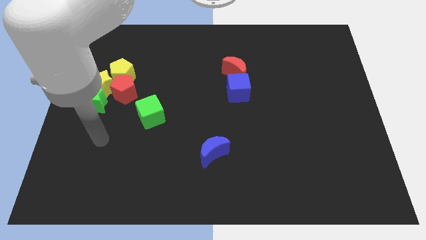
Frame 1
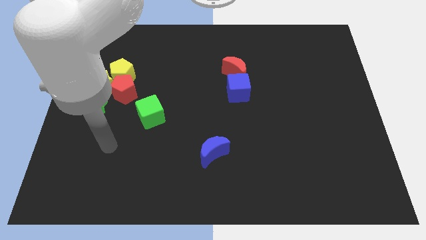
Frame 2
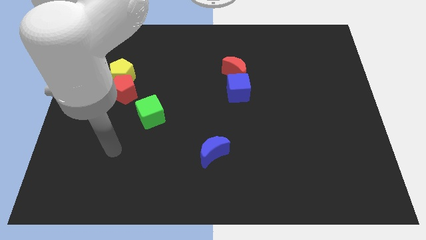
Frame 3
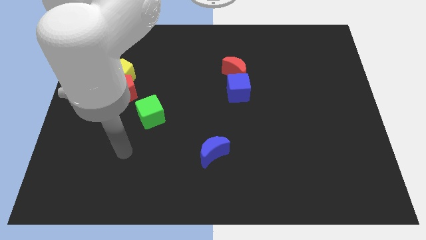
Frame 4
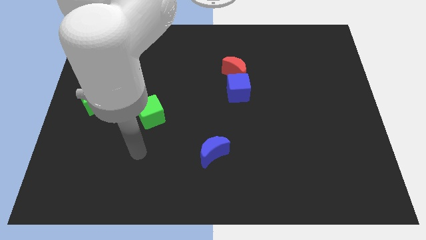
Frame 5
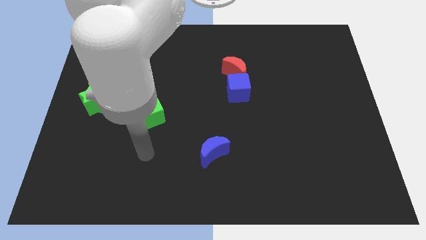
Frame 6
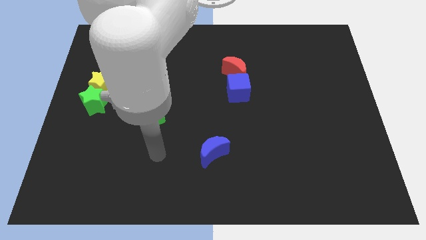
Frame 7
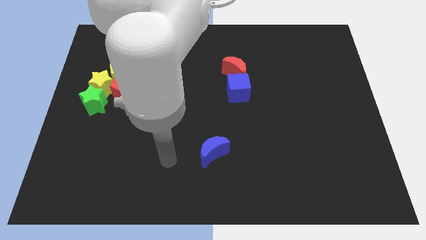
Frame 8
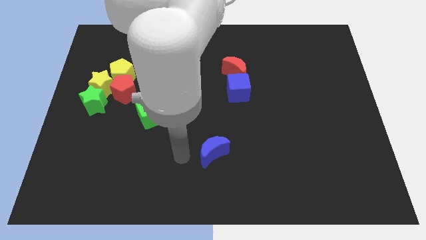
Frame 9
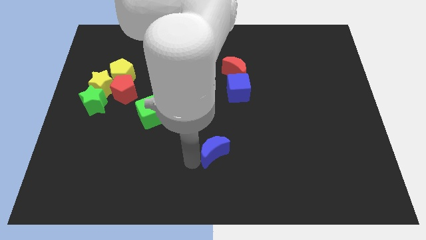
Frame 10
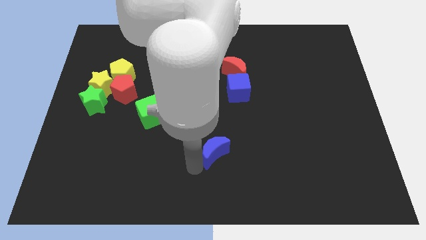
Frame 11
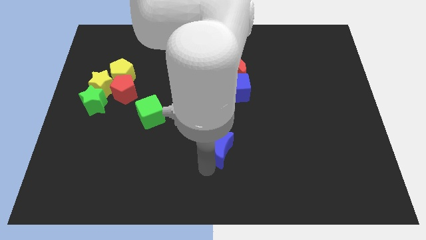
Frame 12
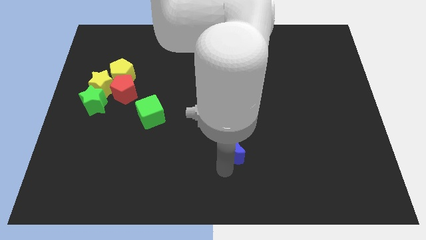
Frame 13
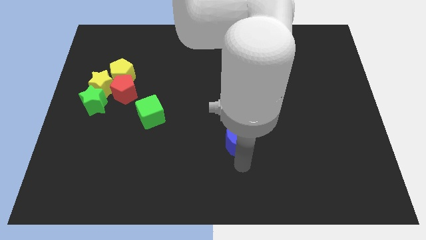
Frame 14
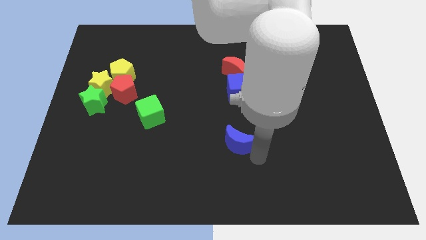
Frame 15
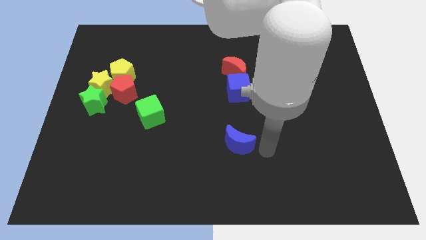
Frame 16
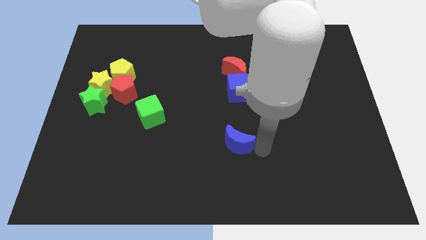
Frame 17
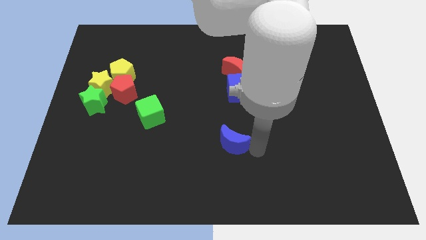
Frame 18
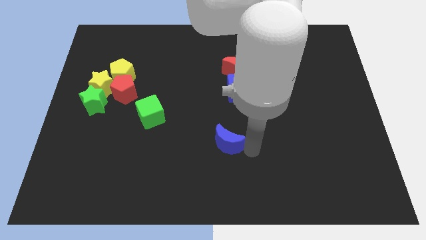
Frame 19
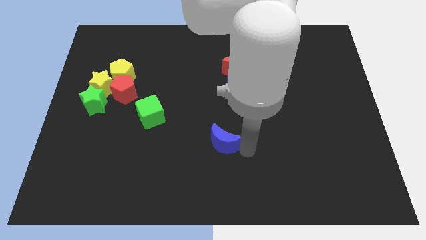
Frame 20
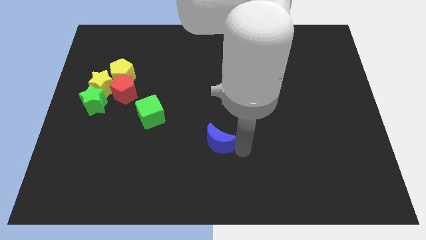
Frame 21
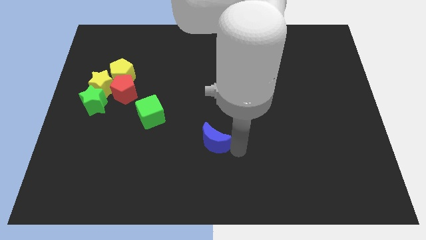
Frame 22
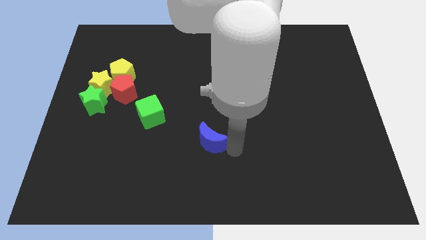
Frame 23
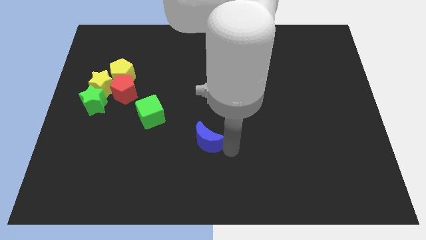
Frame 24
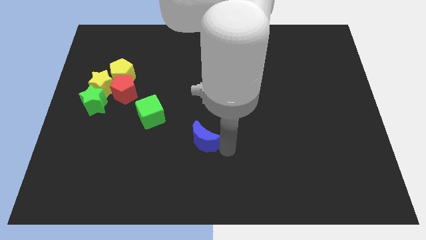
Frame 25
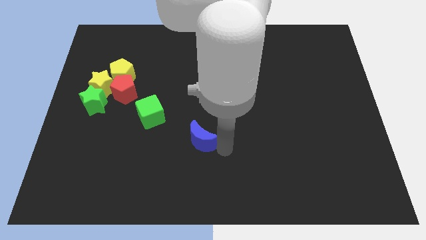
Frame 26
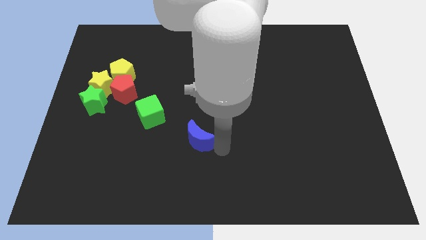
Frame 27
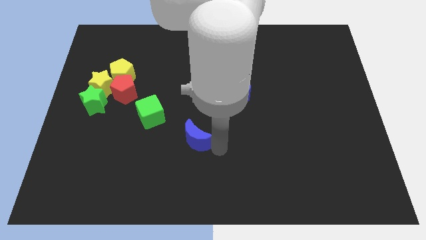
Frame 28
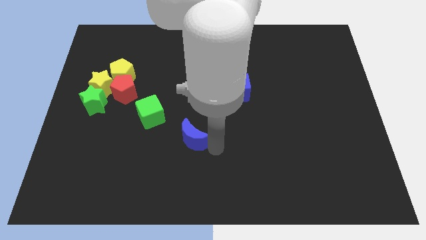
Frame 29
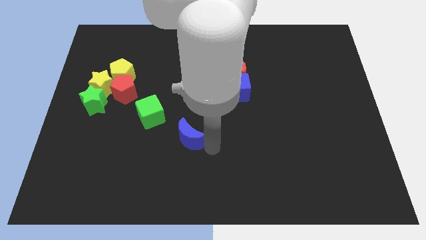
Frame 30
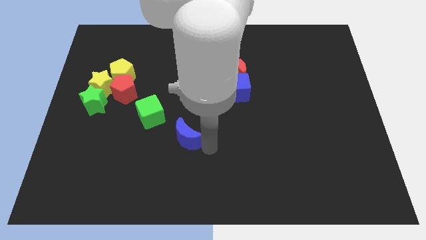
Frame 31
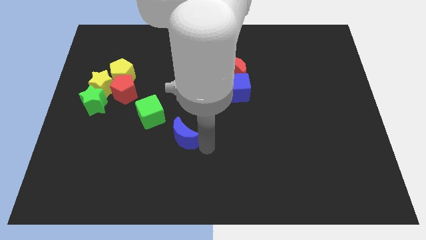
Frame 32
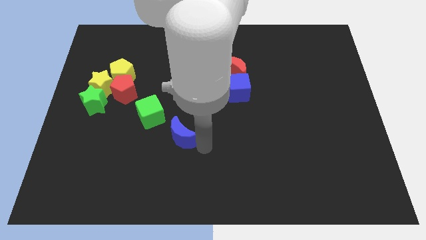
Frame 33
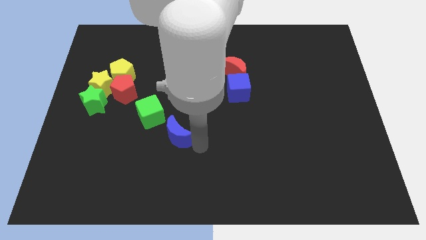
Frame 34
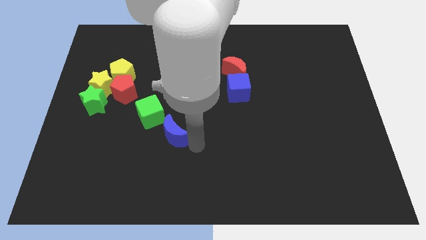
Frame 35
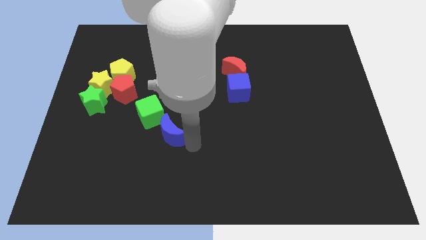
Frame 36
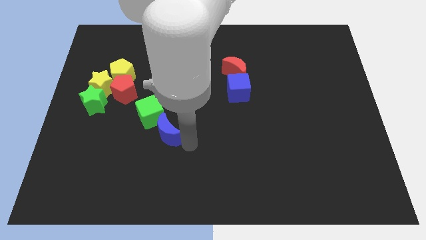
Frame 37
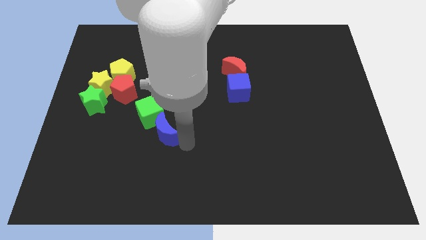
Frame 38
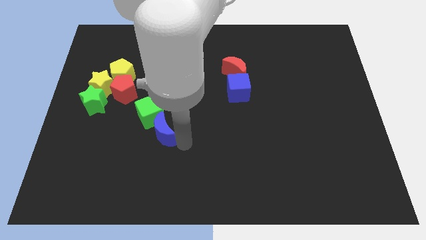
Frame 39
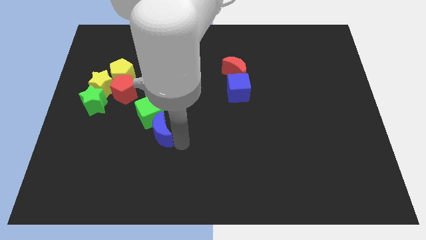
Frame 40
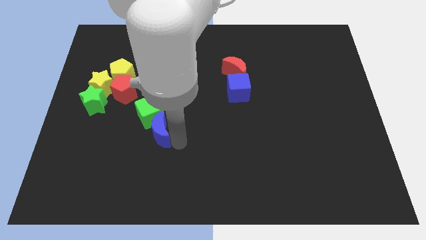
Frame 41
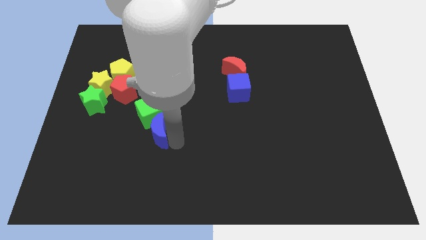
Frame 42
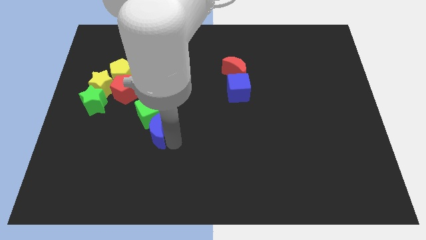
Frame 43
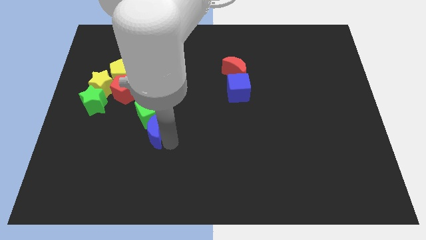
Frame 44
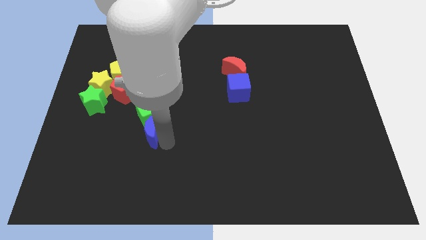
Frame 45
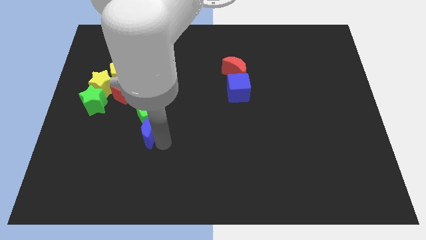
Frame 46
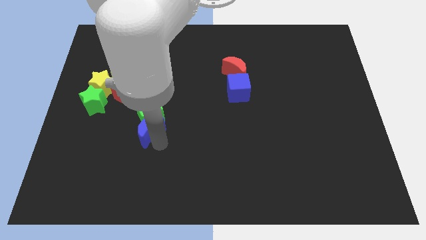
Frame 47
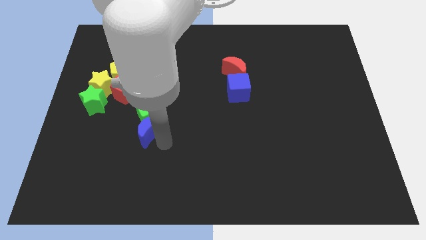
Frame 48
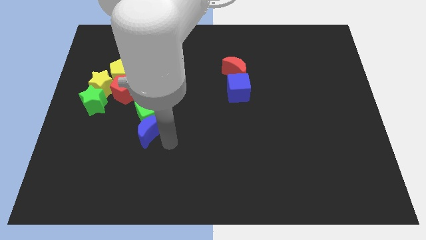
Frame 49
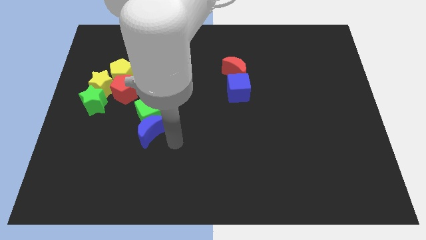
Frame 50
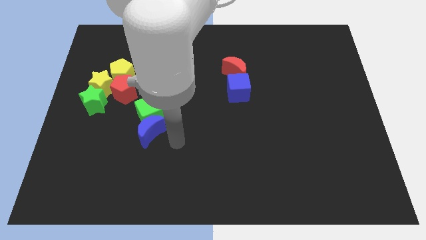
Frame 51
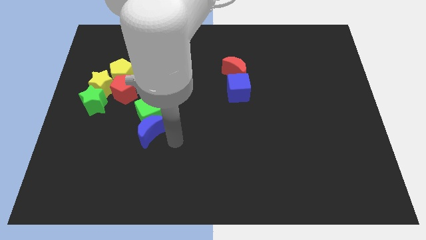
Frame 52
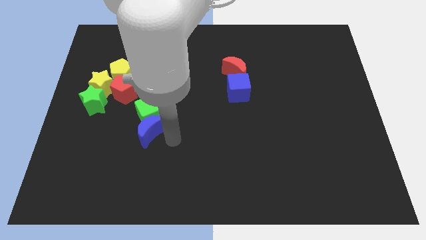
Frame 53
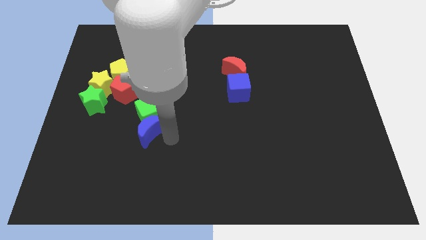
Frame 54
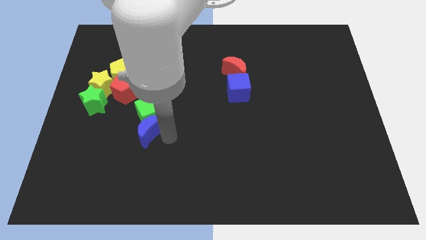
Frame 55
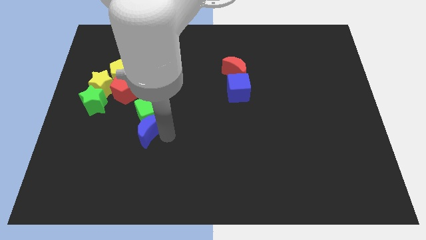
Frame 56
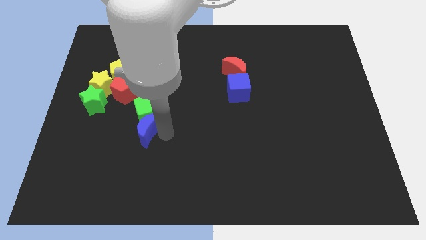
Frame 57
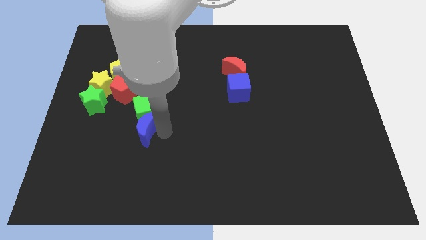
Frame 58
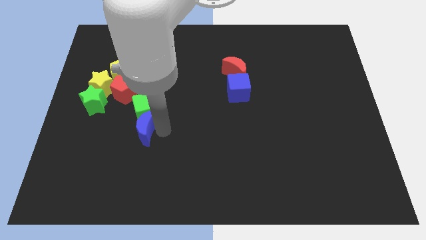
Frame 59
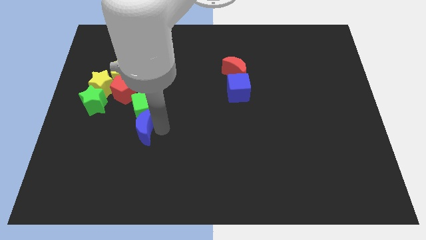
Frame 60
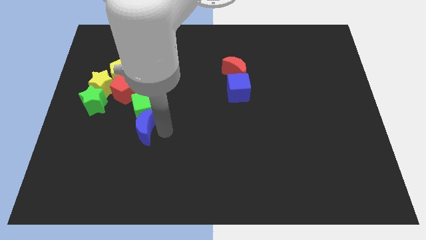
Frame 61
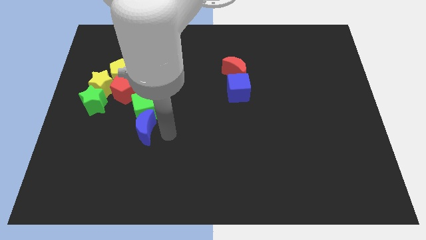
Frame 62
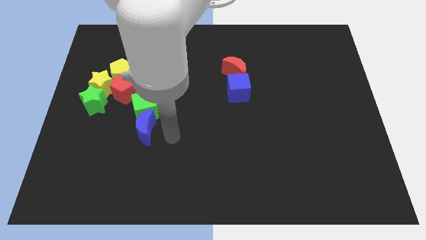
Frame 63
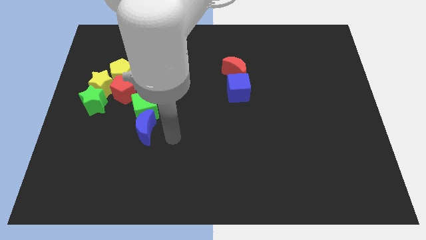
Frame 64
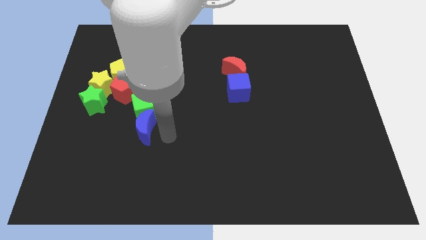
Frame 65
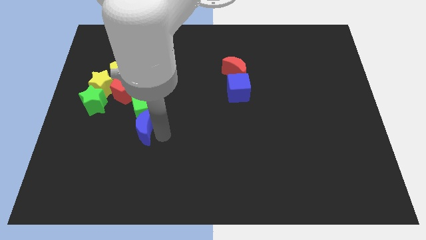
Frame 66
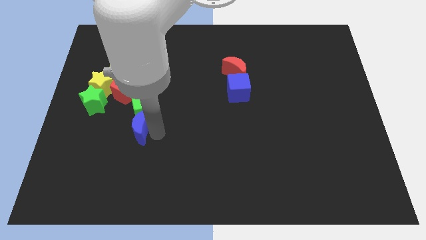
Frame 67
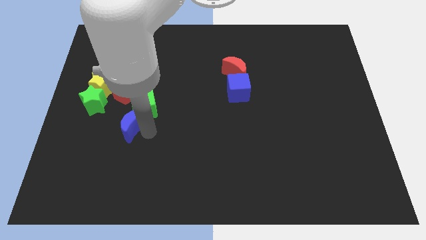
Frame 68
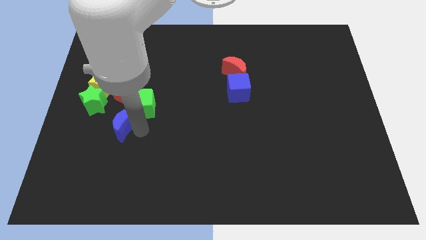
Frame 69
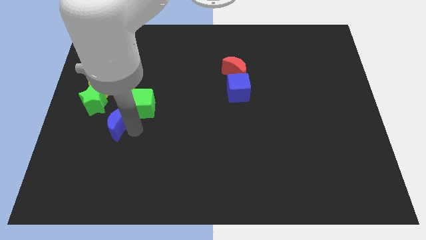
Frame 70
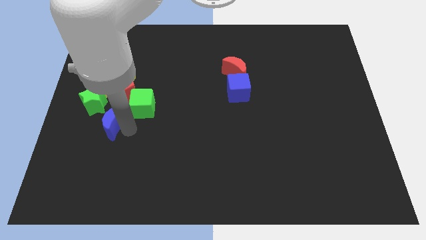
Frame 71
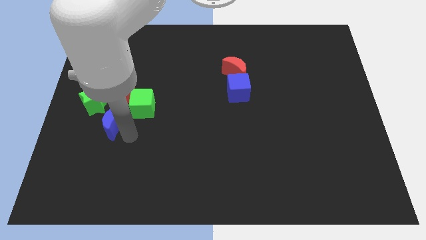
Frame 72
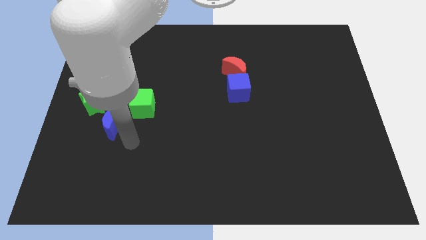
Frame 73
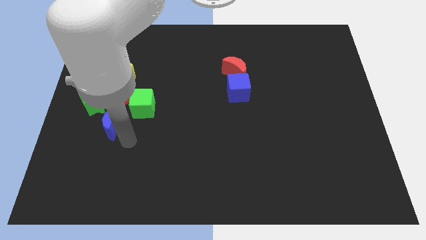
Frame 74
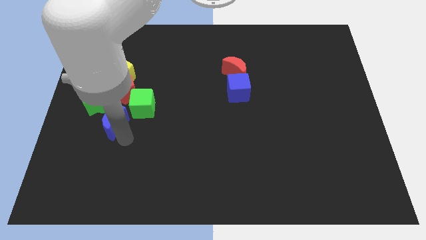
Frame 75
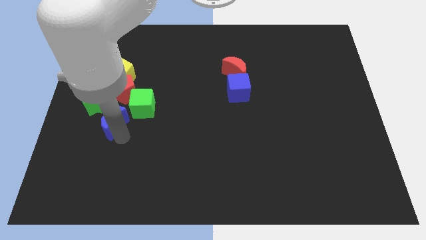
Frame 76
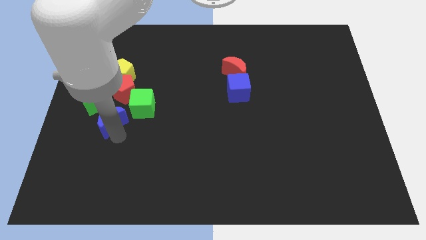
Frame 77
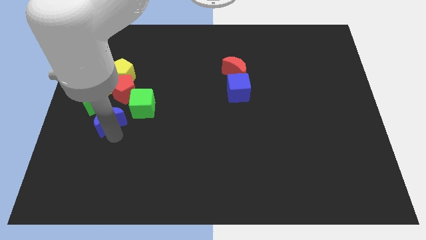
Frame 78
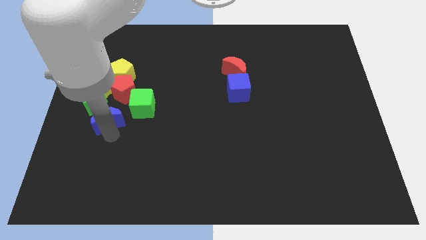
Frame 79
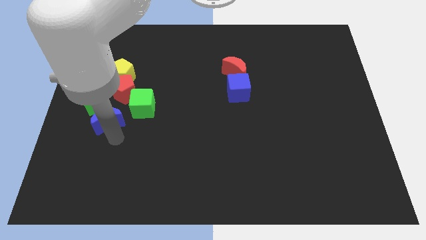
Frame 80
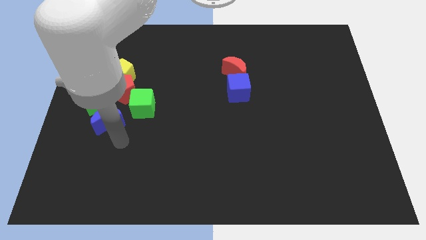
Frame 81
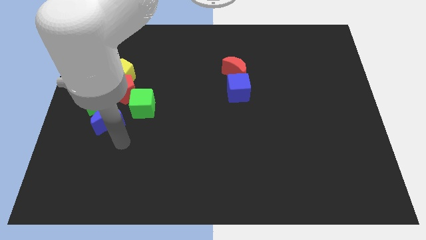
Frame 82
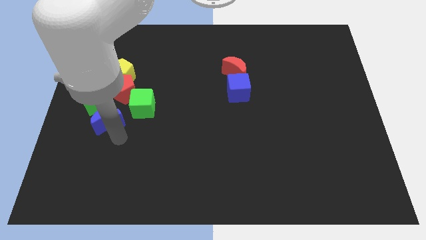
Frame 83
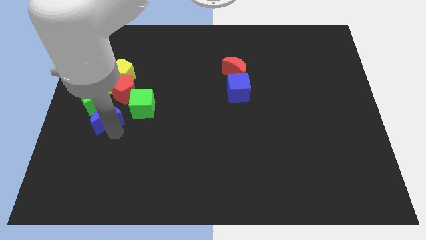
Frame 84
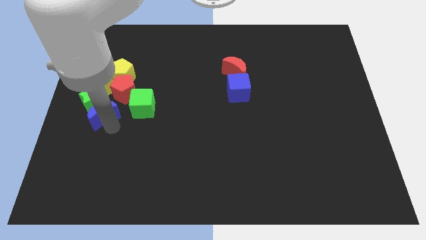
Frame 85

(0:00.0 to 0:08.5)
put the blue moon next to the green star
